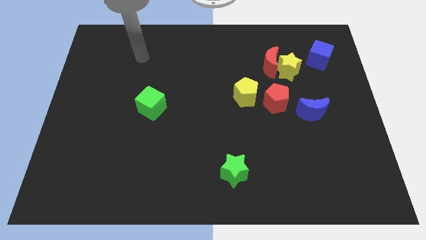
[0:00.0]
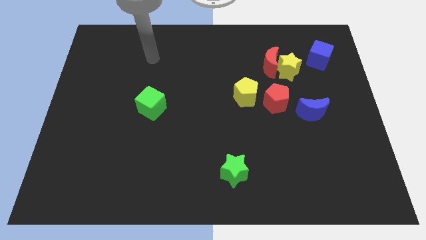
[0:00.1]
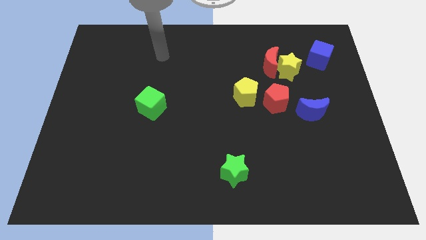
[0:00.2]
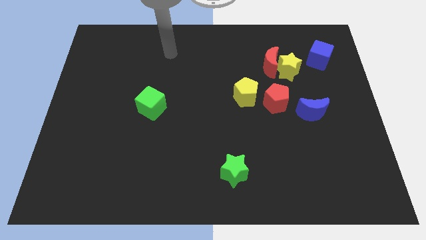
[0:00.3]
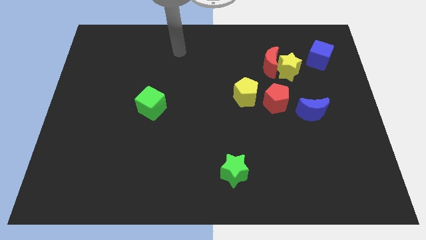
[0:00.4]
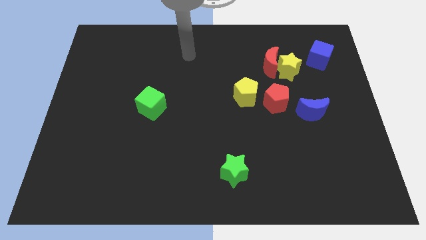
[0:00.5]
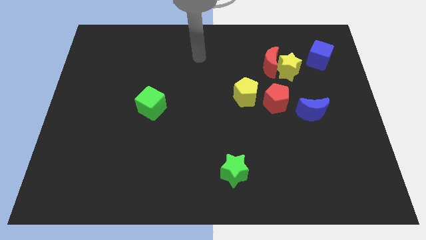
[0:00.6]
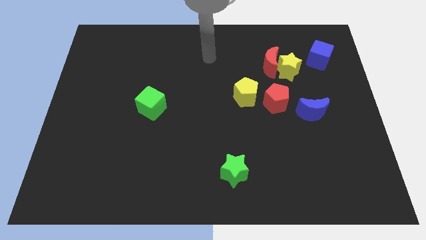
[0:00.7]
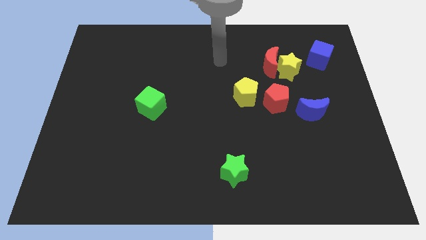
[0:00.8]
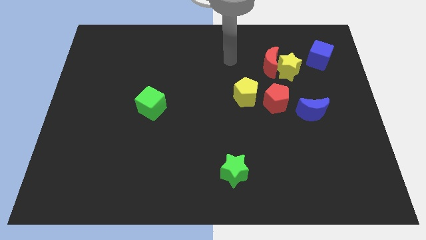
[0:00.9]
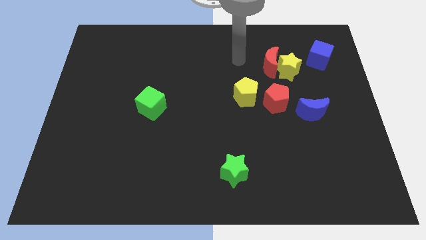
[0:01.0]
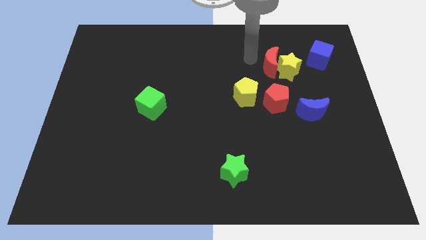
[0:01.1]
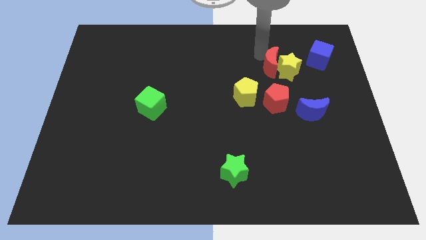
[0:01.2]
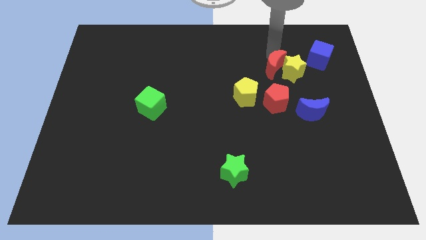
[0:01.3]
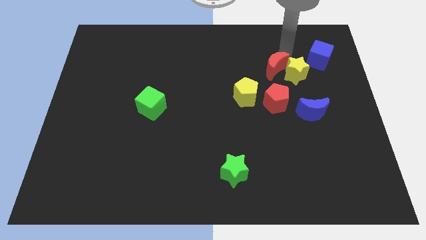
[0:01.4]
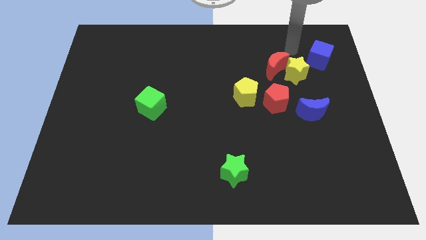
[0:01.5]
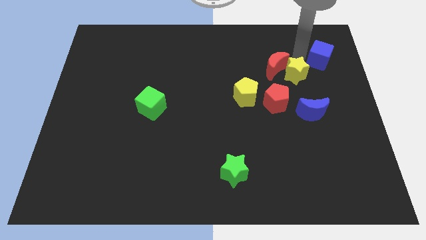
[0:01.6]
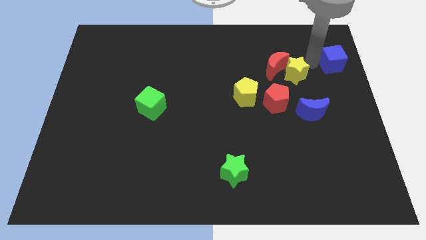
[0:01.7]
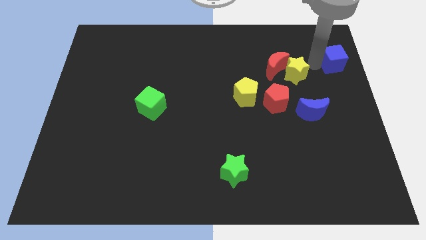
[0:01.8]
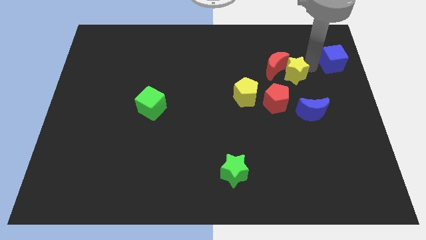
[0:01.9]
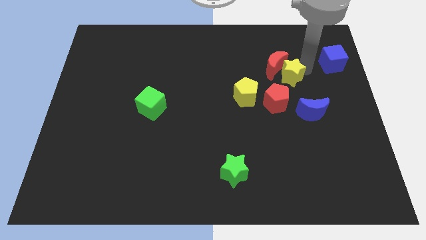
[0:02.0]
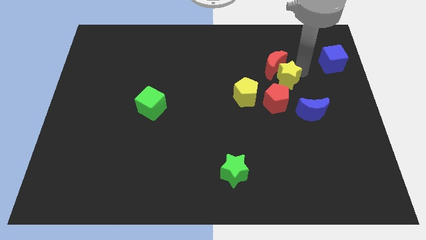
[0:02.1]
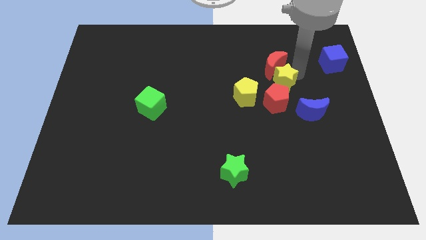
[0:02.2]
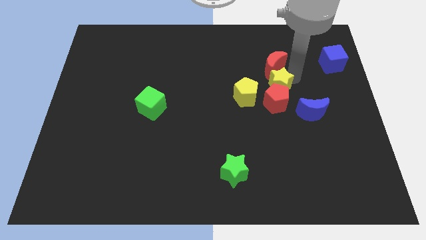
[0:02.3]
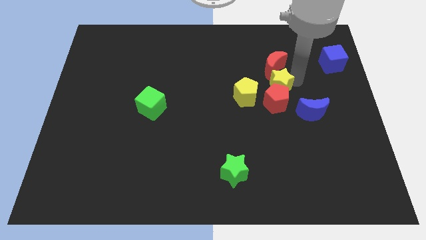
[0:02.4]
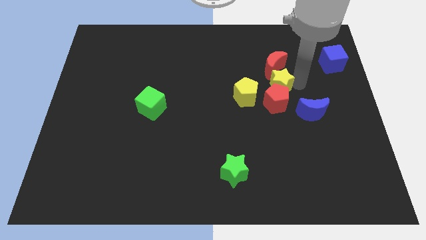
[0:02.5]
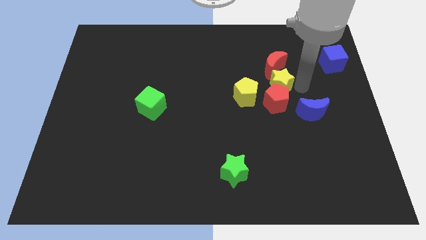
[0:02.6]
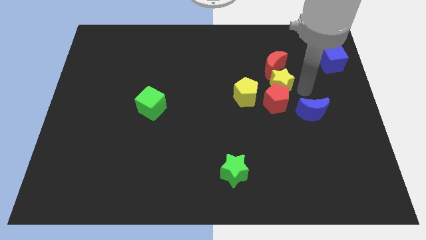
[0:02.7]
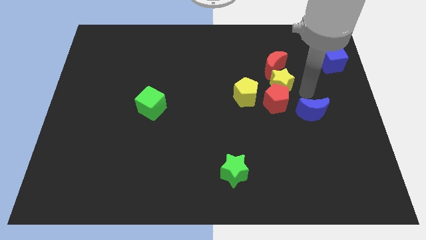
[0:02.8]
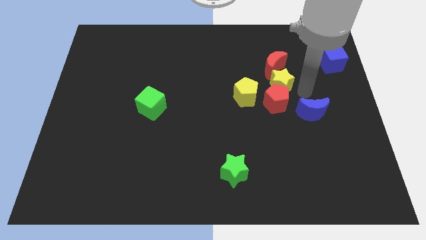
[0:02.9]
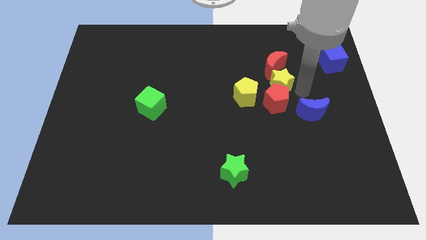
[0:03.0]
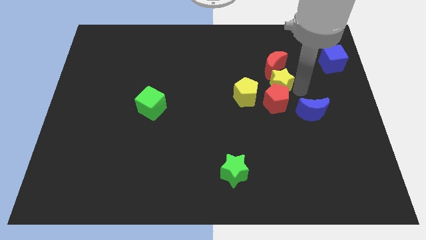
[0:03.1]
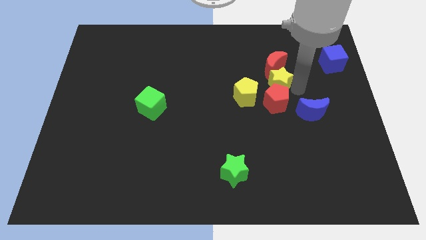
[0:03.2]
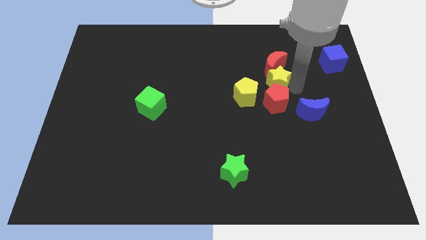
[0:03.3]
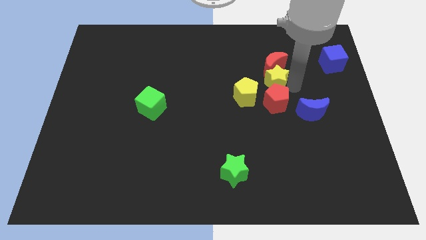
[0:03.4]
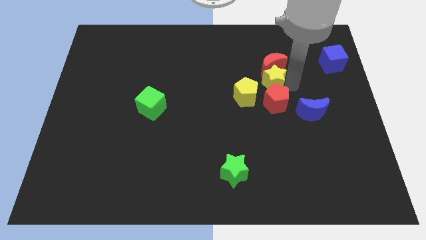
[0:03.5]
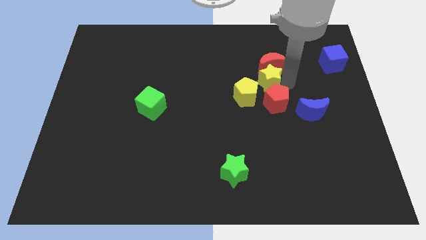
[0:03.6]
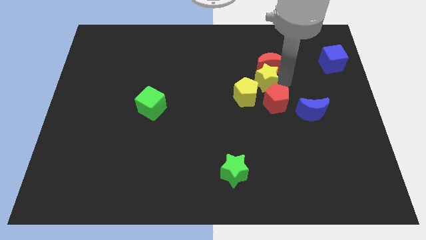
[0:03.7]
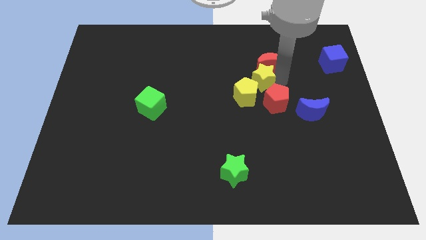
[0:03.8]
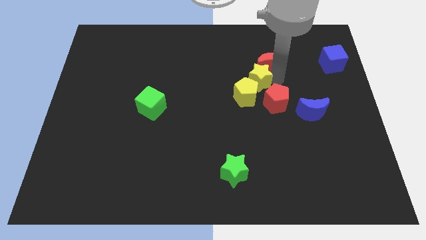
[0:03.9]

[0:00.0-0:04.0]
push the yellow star slightly to the left

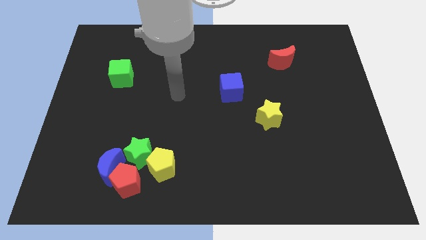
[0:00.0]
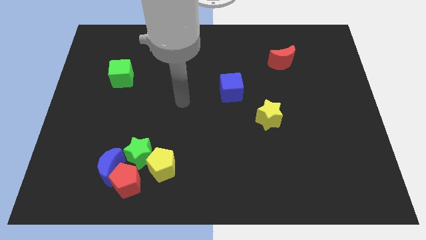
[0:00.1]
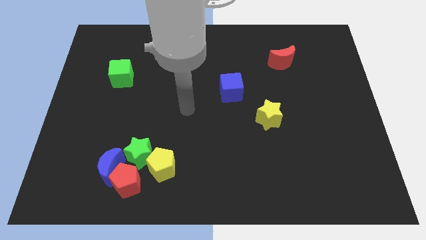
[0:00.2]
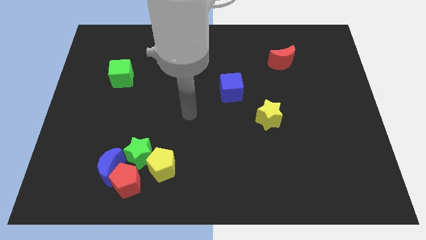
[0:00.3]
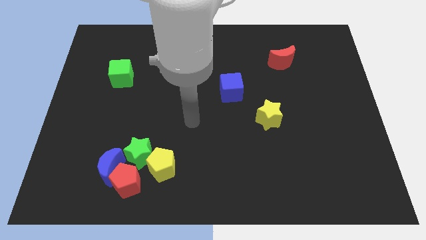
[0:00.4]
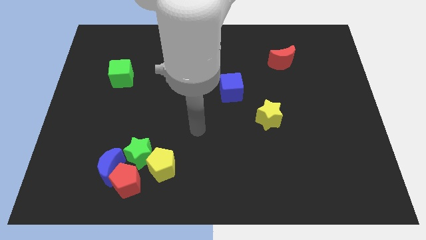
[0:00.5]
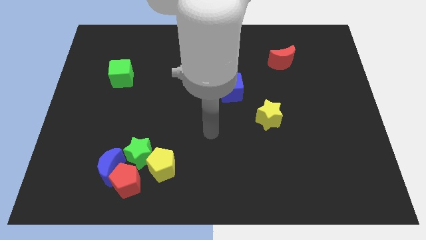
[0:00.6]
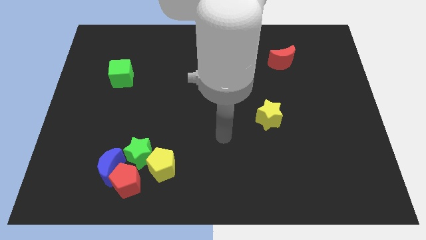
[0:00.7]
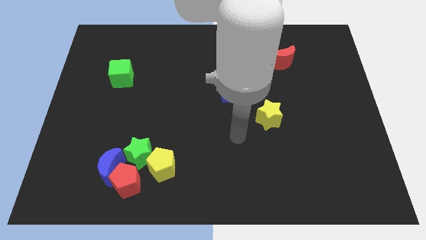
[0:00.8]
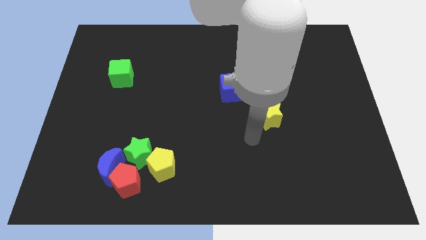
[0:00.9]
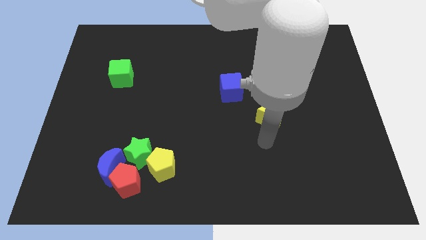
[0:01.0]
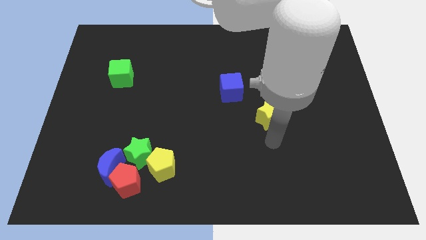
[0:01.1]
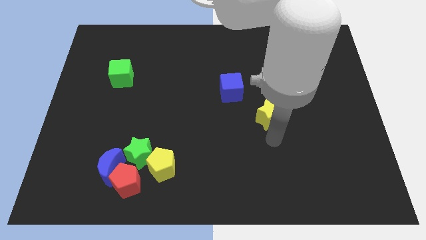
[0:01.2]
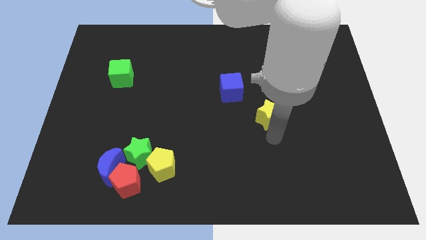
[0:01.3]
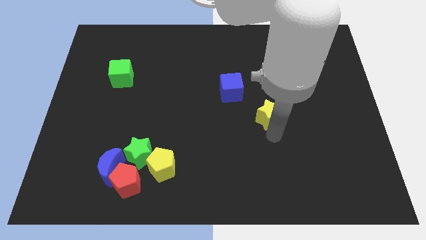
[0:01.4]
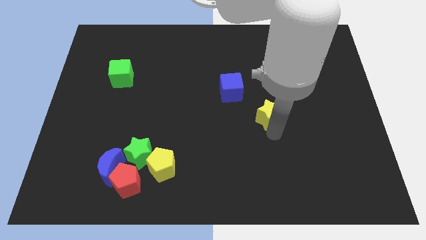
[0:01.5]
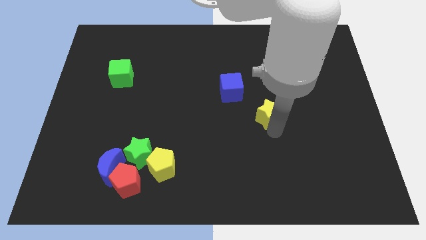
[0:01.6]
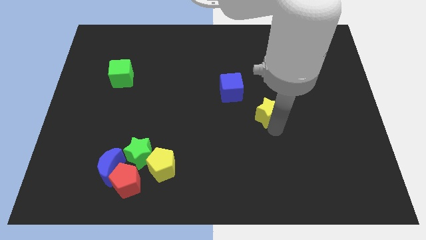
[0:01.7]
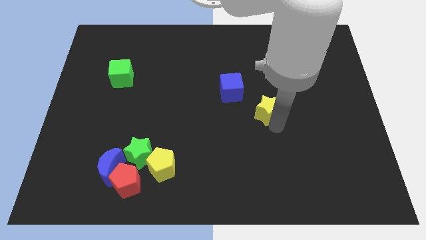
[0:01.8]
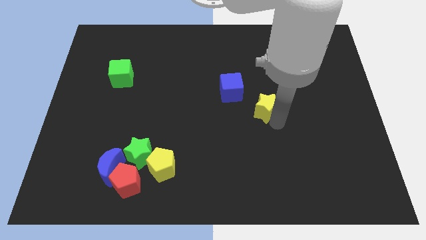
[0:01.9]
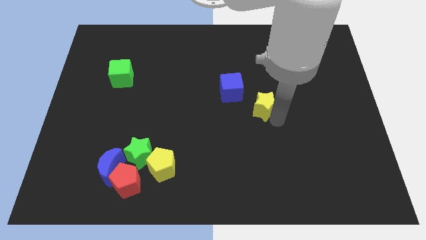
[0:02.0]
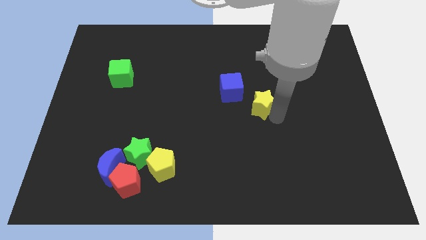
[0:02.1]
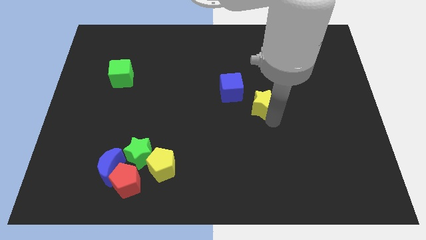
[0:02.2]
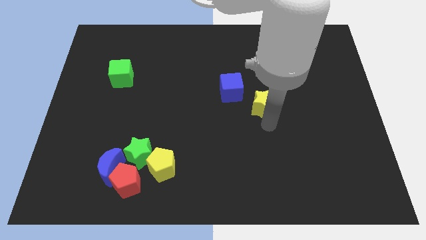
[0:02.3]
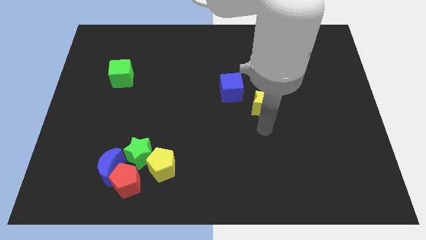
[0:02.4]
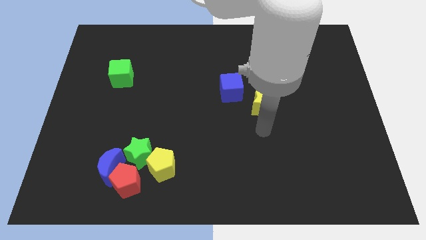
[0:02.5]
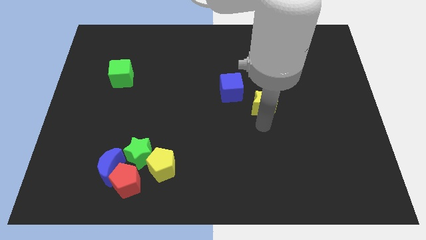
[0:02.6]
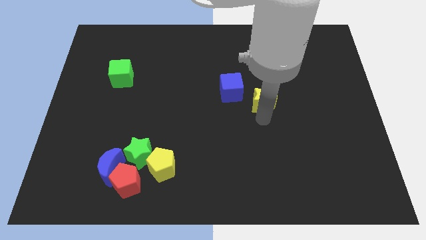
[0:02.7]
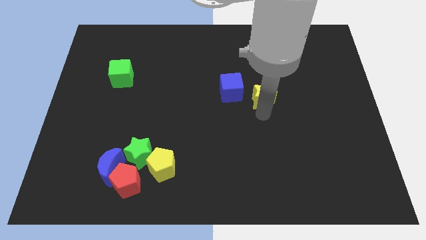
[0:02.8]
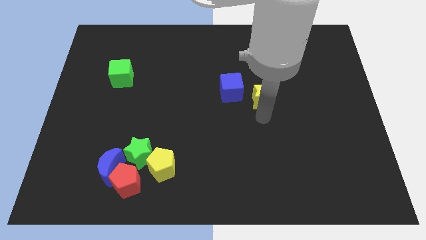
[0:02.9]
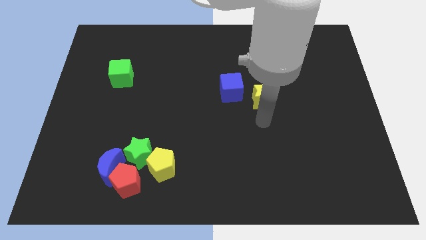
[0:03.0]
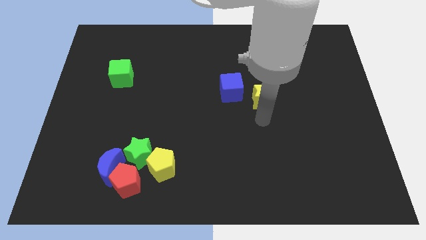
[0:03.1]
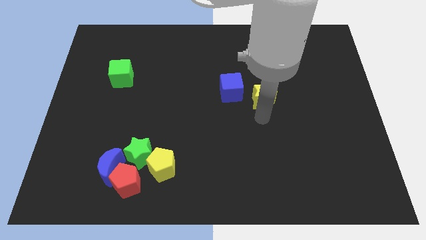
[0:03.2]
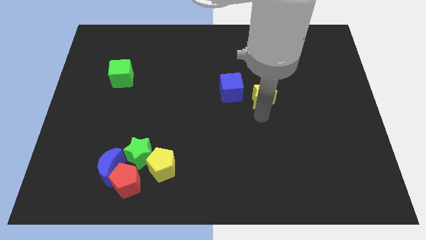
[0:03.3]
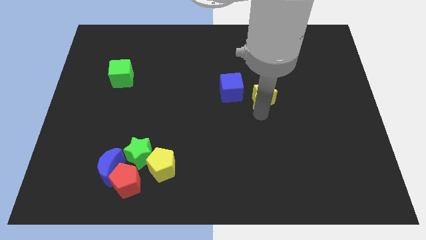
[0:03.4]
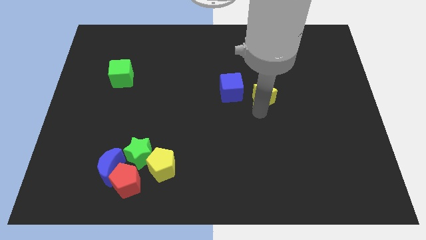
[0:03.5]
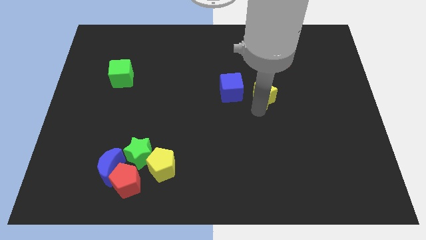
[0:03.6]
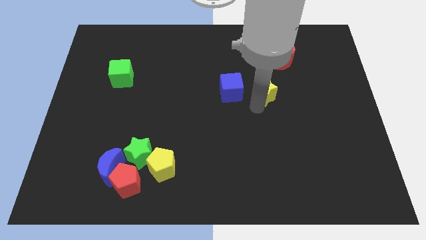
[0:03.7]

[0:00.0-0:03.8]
slightly push the yellow star up
